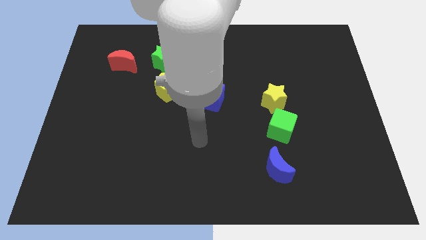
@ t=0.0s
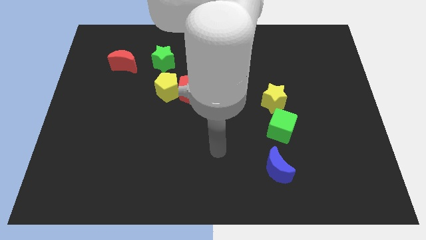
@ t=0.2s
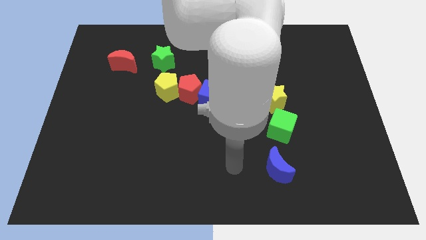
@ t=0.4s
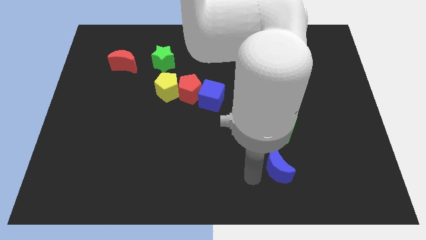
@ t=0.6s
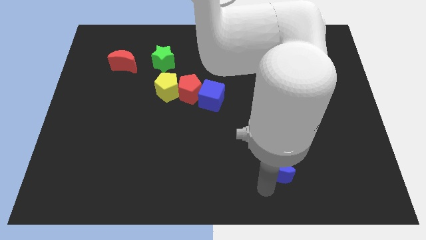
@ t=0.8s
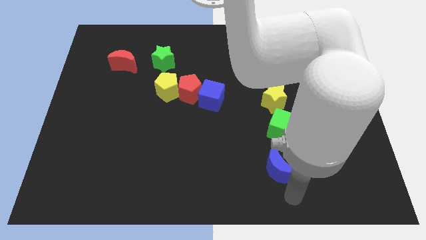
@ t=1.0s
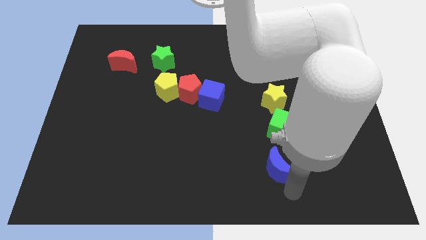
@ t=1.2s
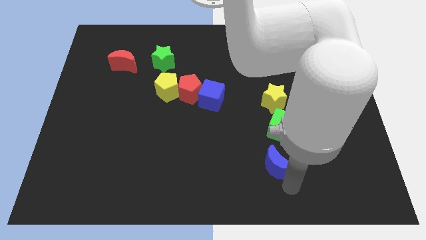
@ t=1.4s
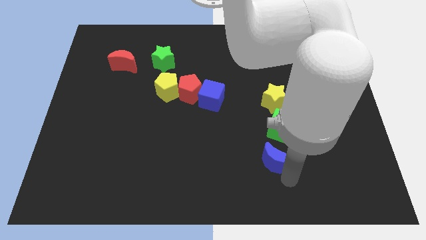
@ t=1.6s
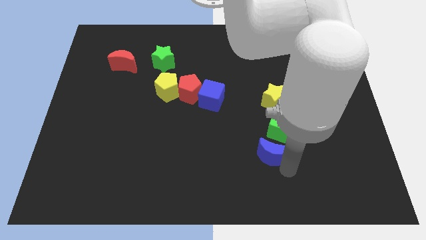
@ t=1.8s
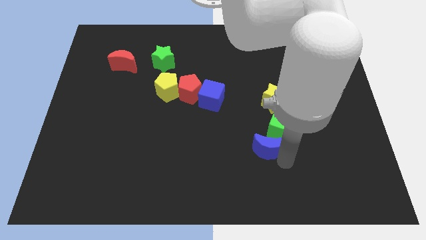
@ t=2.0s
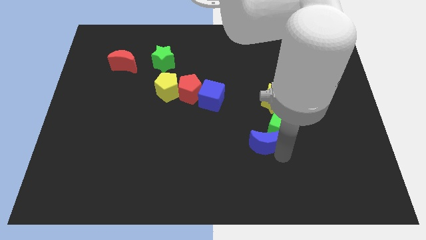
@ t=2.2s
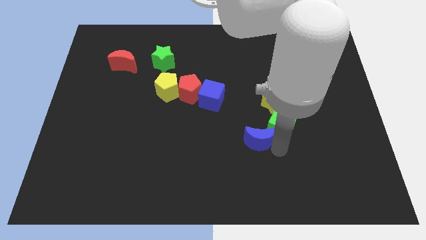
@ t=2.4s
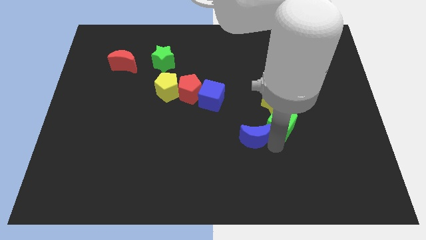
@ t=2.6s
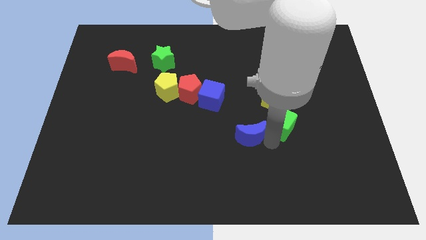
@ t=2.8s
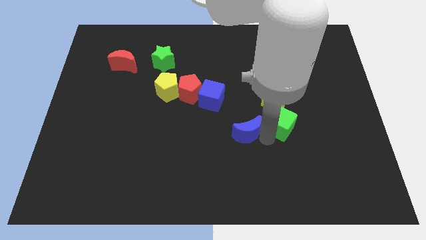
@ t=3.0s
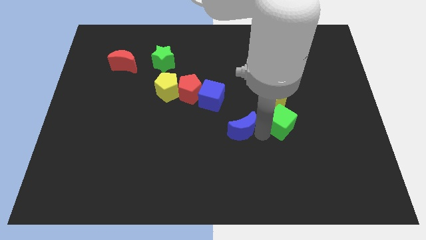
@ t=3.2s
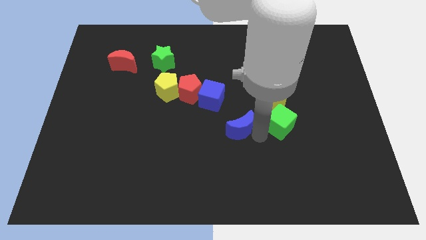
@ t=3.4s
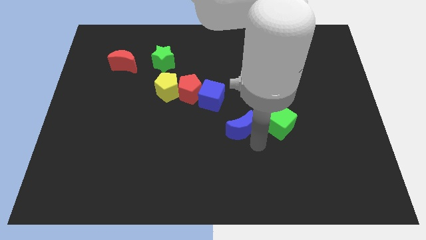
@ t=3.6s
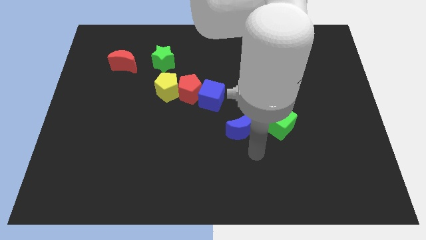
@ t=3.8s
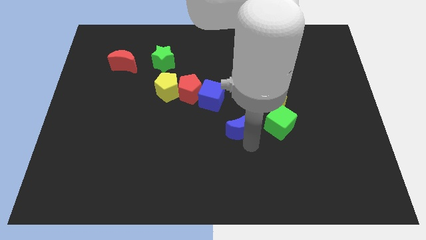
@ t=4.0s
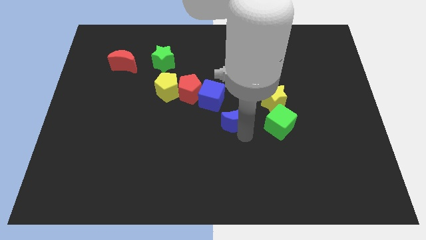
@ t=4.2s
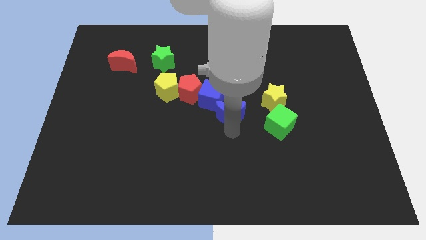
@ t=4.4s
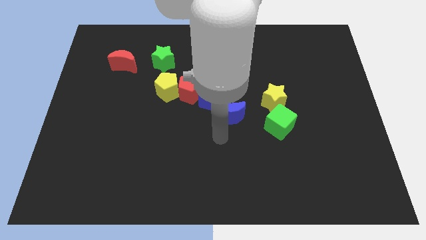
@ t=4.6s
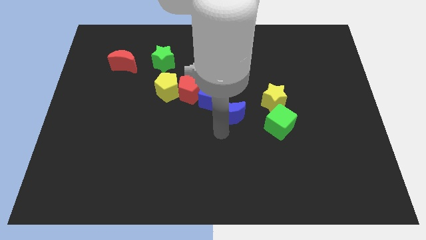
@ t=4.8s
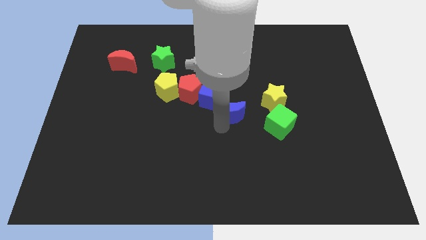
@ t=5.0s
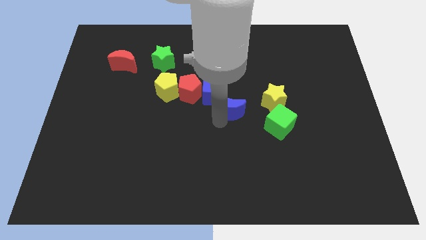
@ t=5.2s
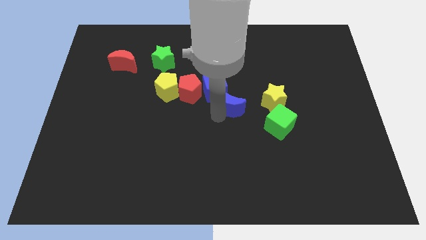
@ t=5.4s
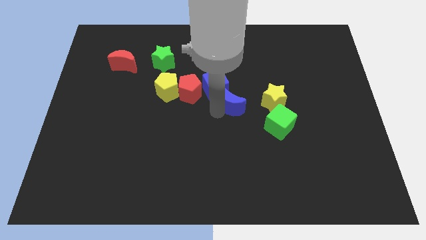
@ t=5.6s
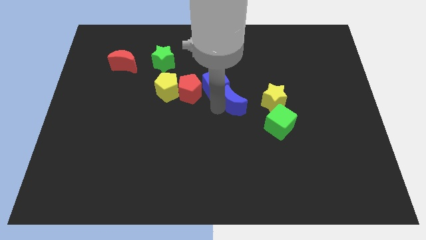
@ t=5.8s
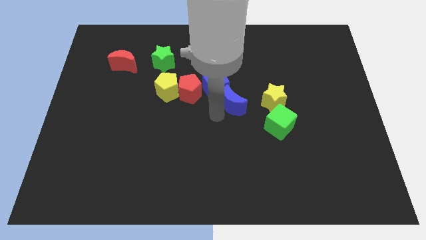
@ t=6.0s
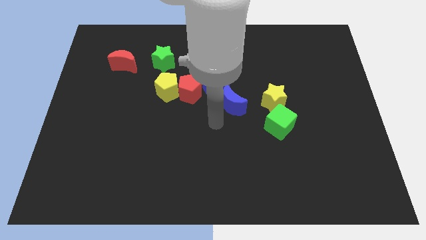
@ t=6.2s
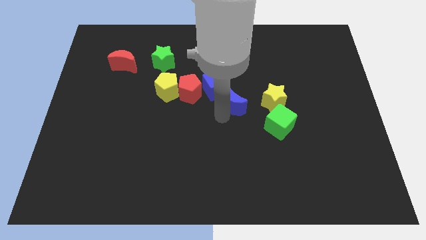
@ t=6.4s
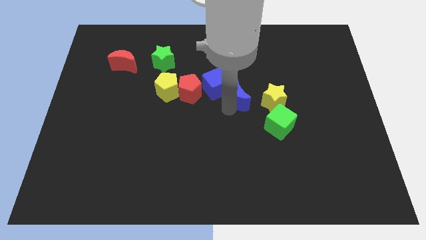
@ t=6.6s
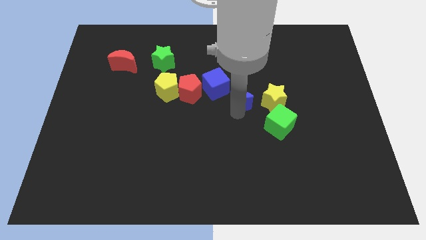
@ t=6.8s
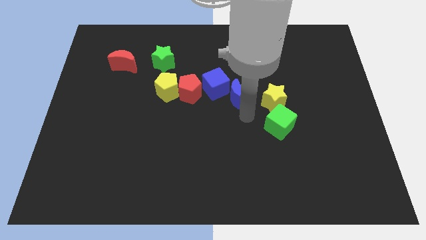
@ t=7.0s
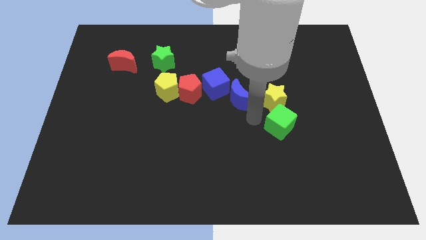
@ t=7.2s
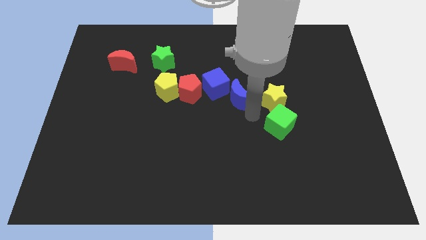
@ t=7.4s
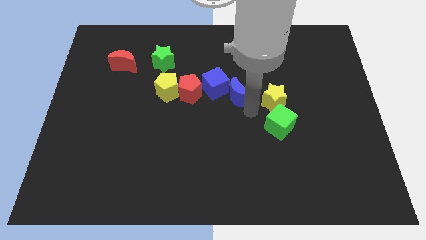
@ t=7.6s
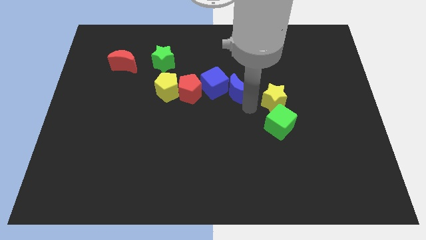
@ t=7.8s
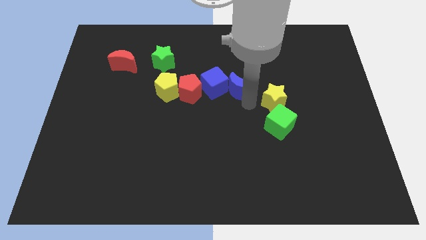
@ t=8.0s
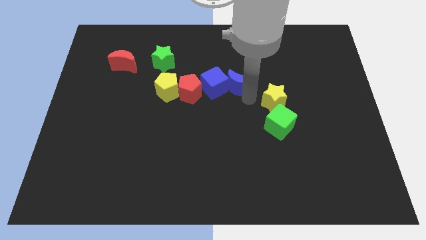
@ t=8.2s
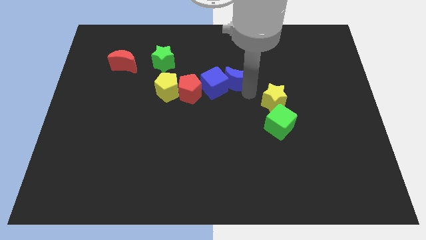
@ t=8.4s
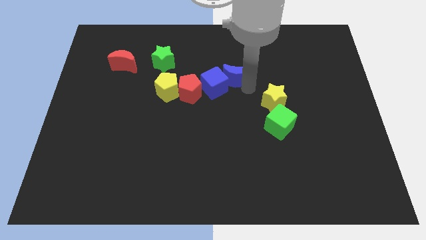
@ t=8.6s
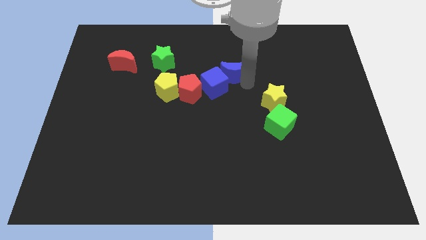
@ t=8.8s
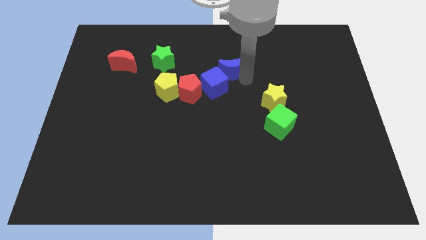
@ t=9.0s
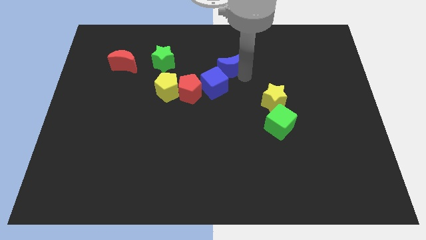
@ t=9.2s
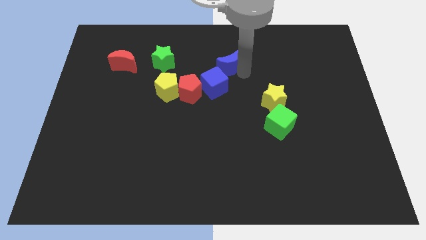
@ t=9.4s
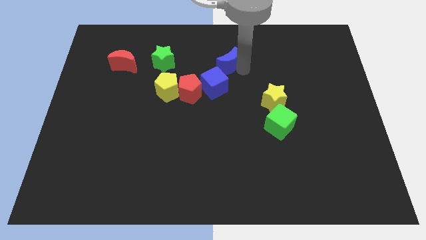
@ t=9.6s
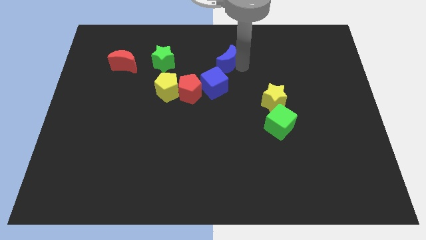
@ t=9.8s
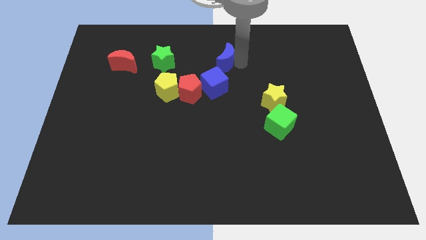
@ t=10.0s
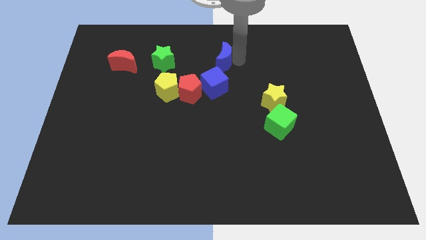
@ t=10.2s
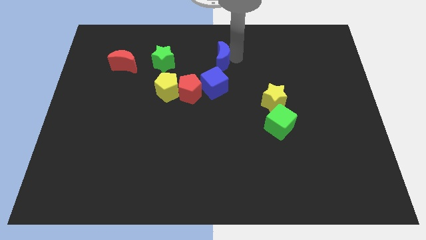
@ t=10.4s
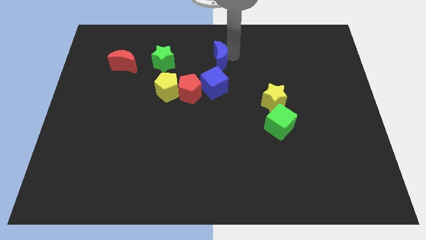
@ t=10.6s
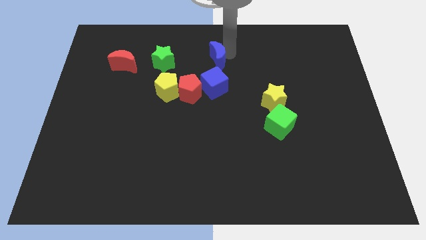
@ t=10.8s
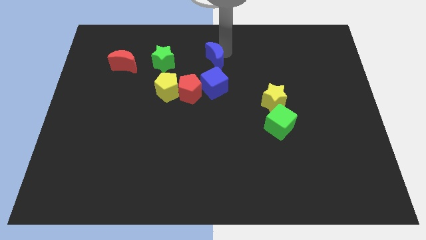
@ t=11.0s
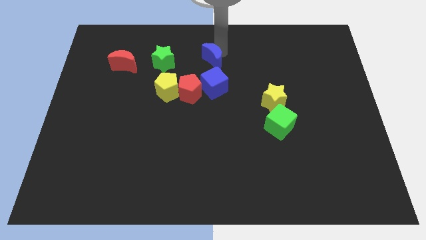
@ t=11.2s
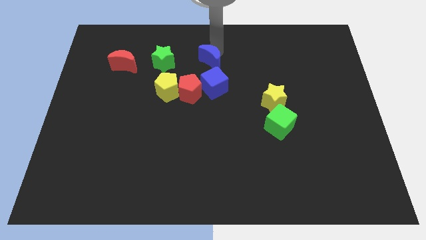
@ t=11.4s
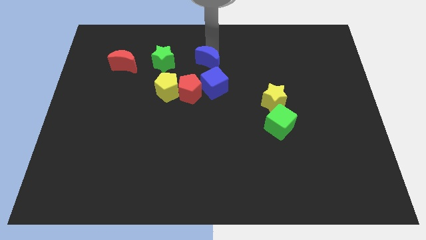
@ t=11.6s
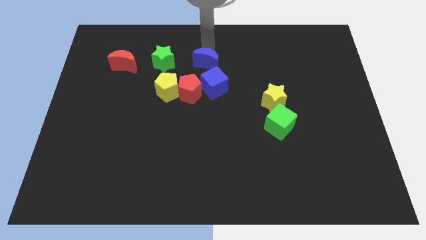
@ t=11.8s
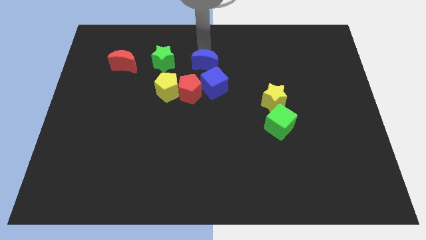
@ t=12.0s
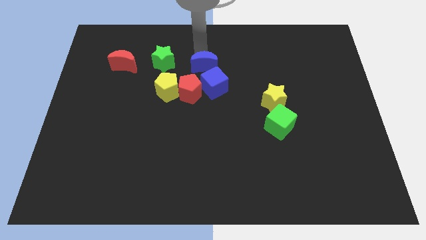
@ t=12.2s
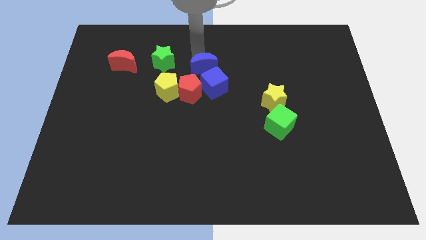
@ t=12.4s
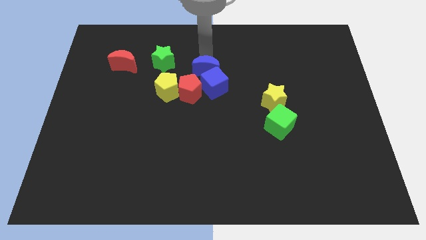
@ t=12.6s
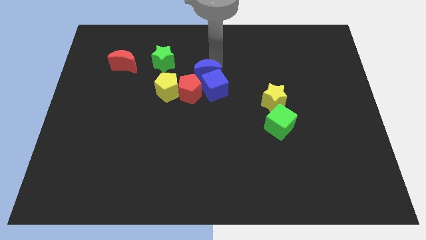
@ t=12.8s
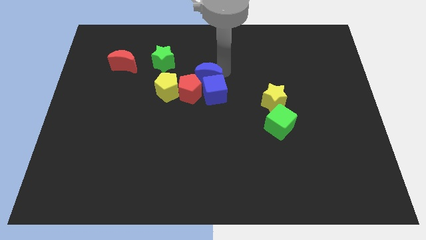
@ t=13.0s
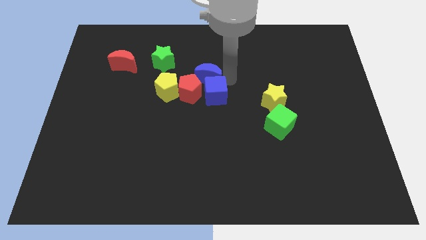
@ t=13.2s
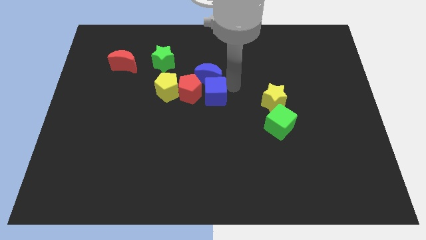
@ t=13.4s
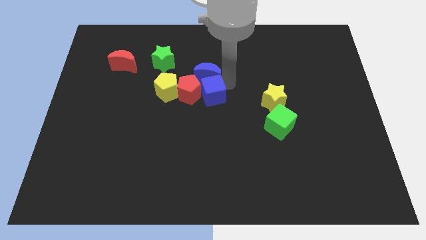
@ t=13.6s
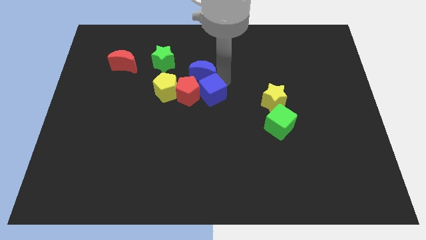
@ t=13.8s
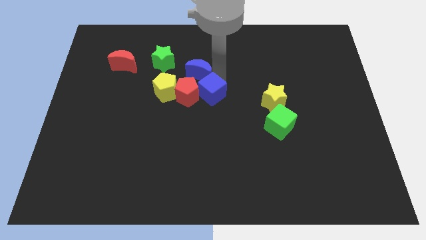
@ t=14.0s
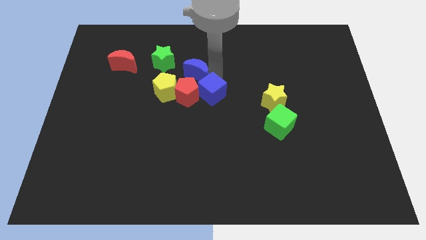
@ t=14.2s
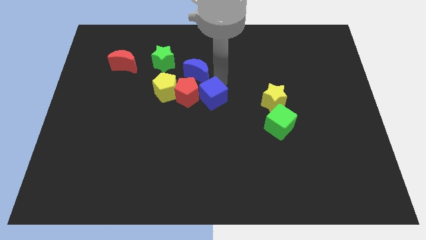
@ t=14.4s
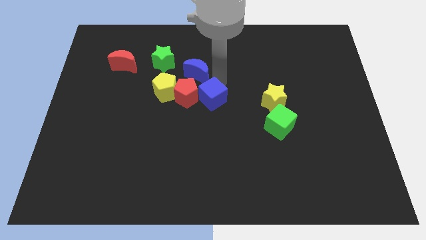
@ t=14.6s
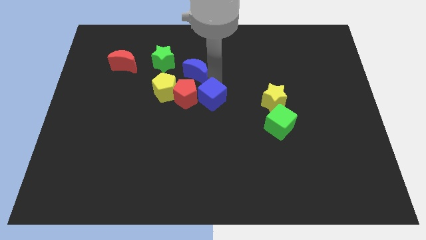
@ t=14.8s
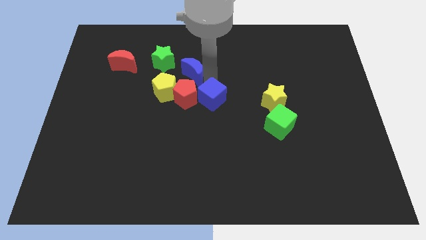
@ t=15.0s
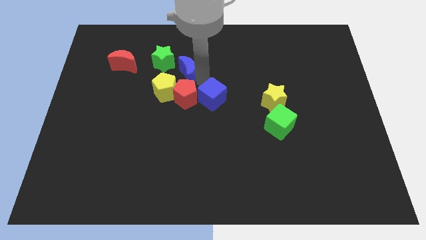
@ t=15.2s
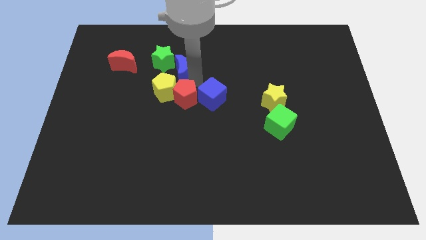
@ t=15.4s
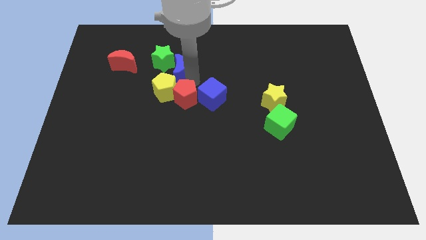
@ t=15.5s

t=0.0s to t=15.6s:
put the blue moon to the green star
